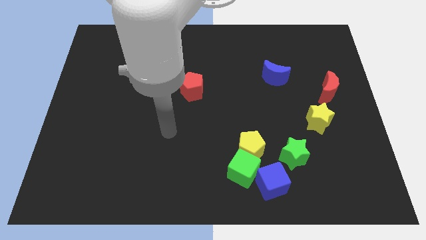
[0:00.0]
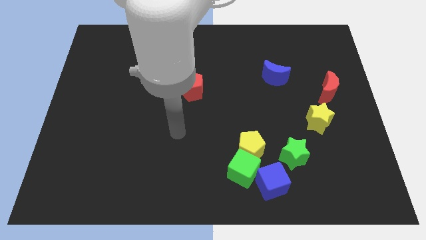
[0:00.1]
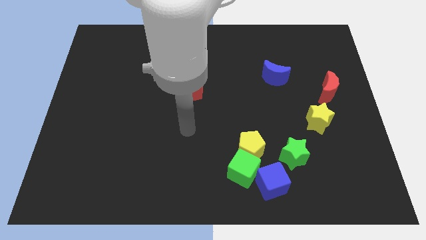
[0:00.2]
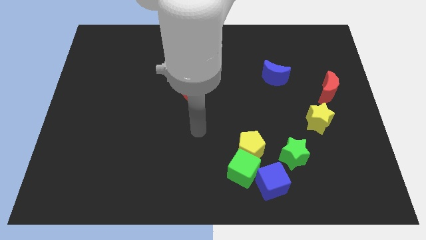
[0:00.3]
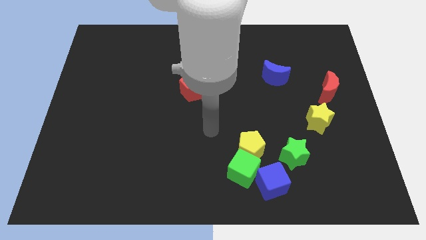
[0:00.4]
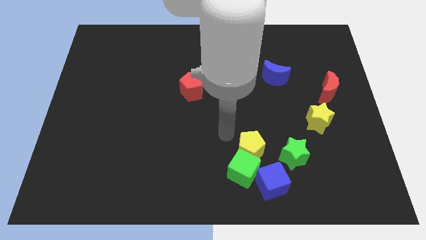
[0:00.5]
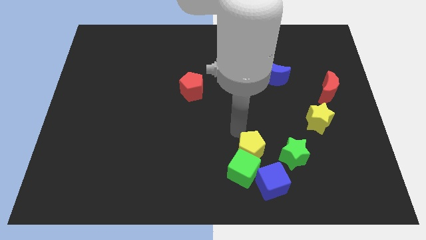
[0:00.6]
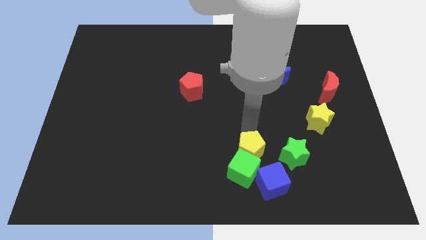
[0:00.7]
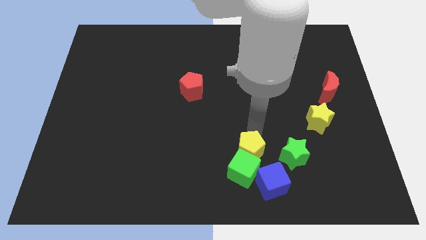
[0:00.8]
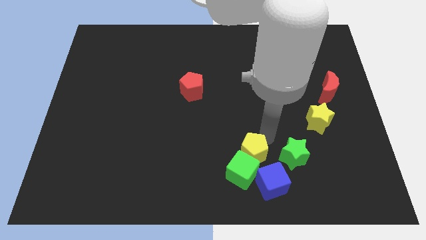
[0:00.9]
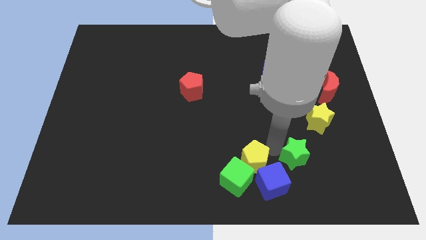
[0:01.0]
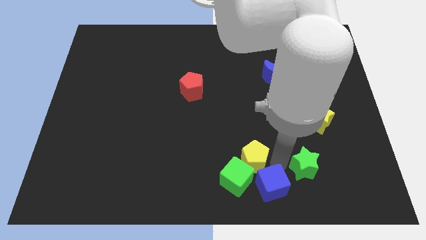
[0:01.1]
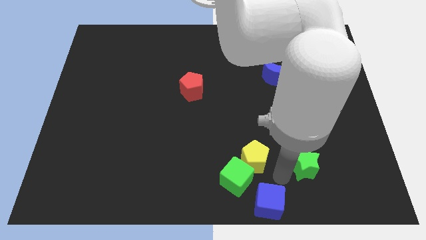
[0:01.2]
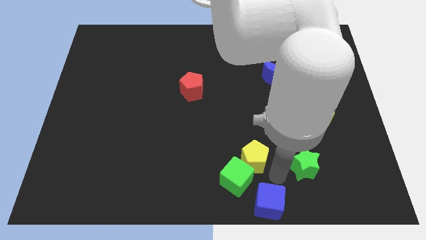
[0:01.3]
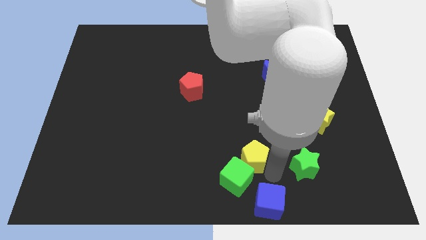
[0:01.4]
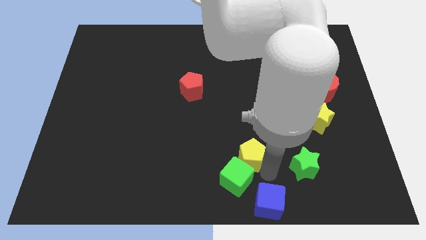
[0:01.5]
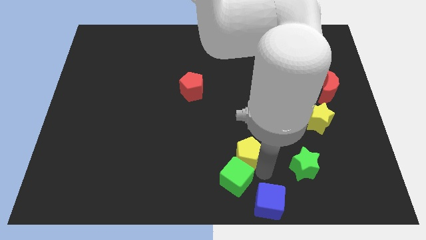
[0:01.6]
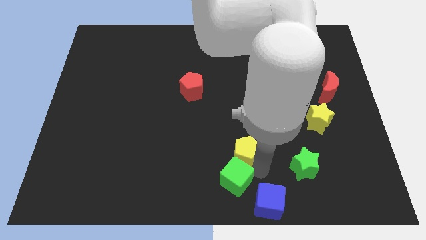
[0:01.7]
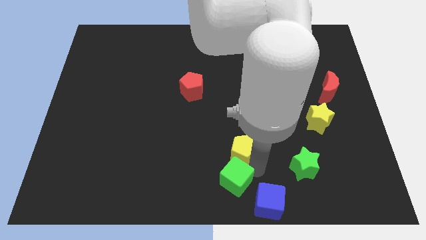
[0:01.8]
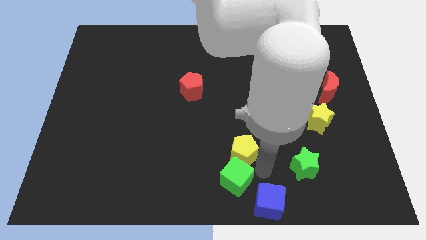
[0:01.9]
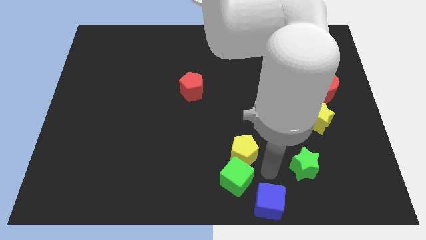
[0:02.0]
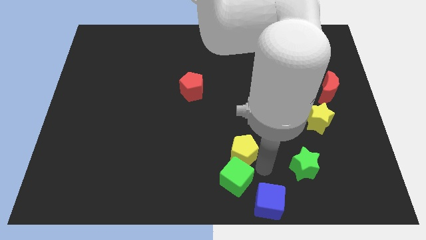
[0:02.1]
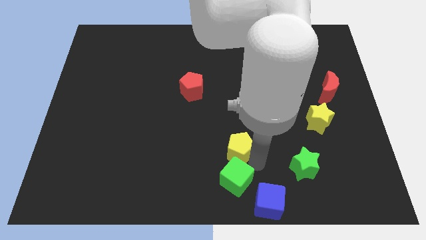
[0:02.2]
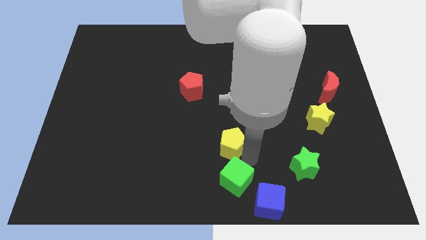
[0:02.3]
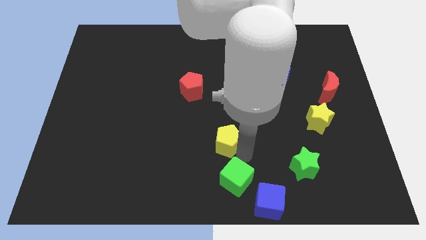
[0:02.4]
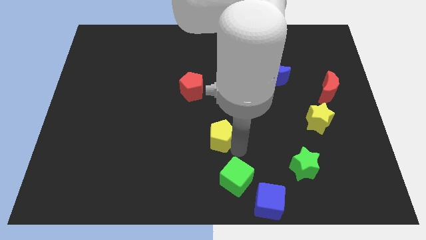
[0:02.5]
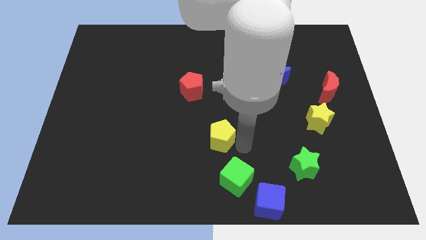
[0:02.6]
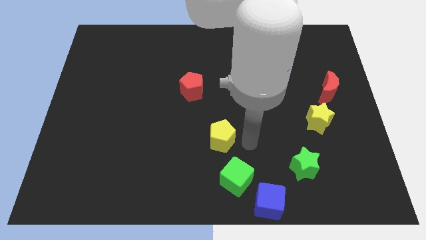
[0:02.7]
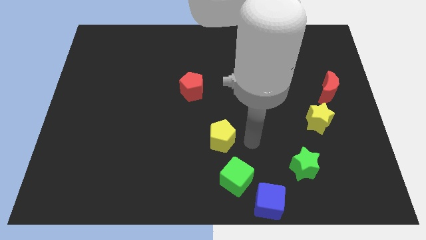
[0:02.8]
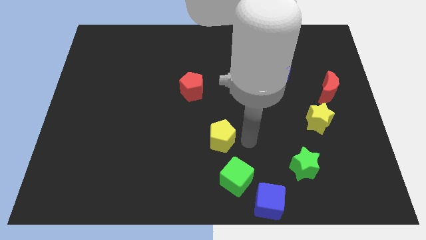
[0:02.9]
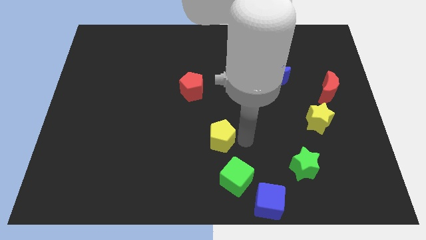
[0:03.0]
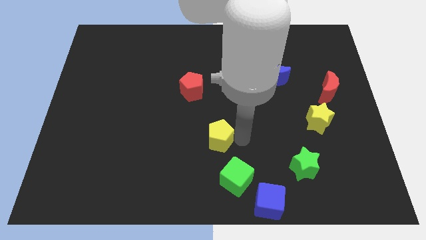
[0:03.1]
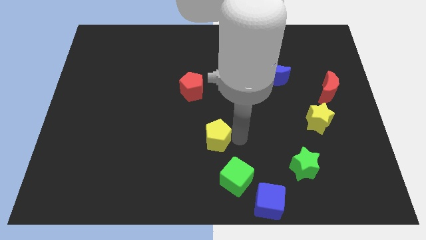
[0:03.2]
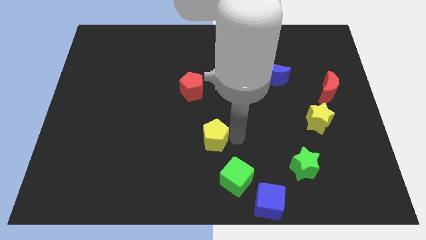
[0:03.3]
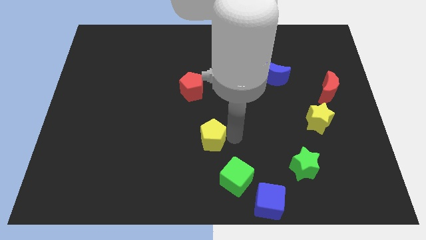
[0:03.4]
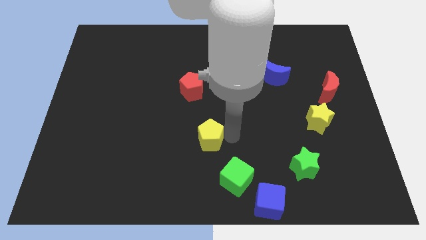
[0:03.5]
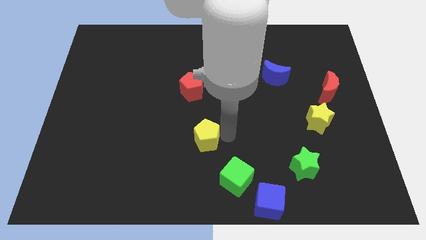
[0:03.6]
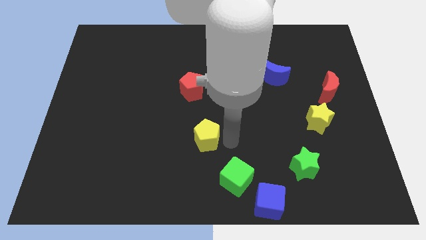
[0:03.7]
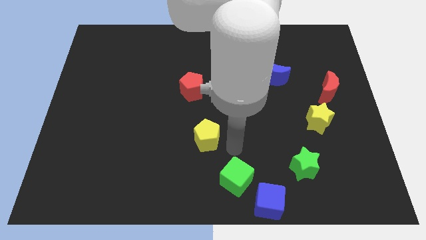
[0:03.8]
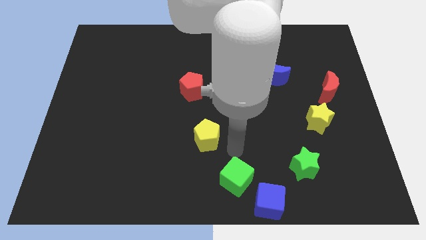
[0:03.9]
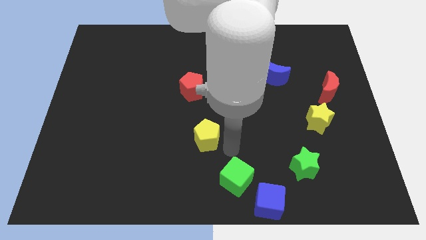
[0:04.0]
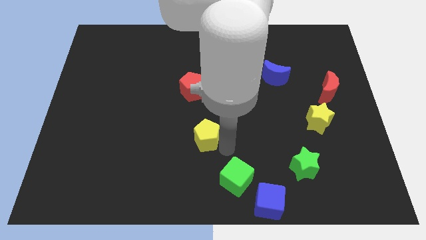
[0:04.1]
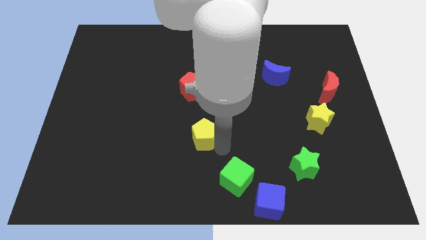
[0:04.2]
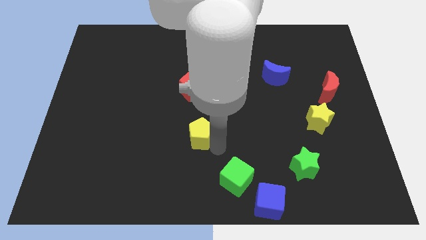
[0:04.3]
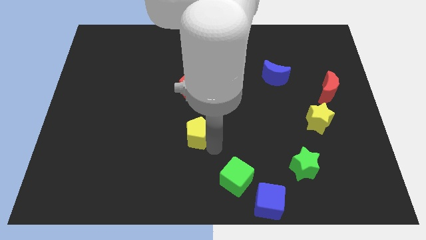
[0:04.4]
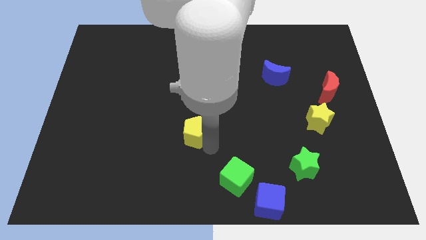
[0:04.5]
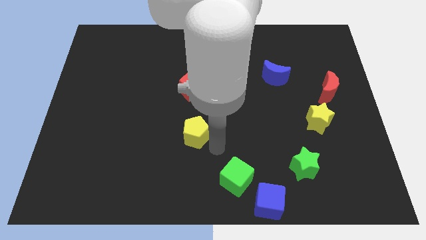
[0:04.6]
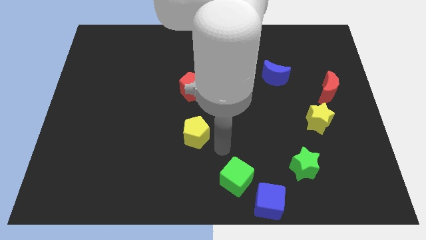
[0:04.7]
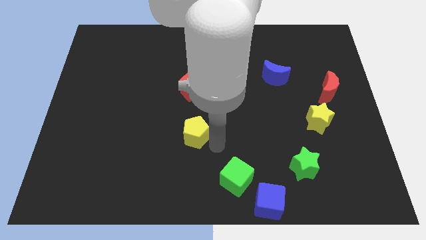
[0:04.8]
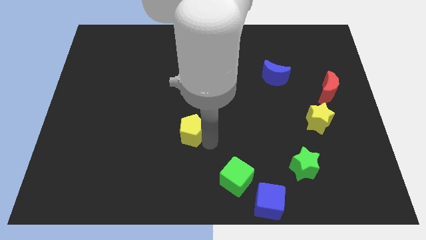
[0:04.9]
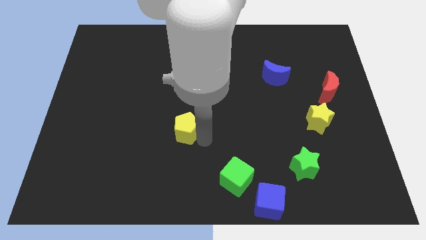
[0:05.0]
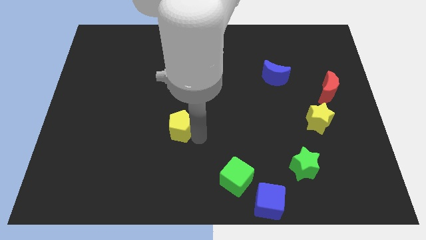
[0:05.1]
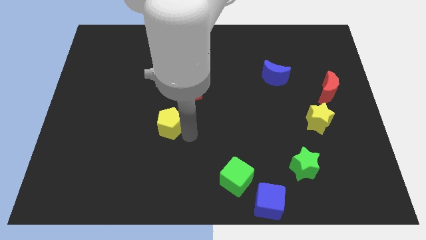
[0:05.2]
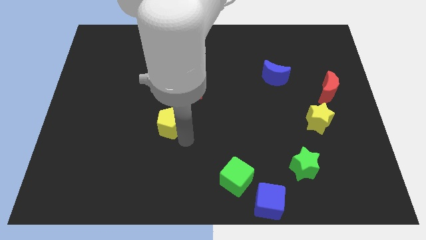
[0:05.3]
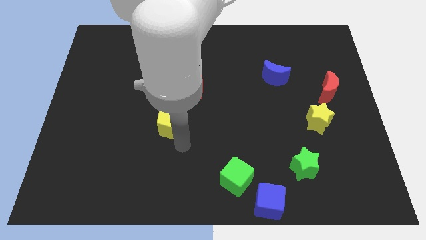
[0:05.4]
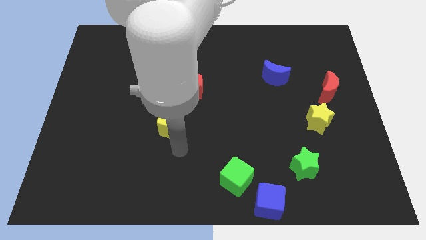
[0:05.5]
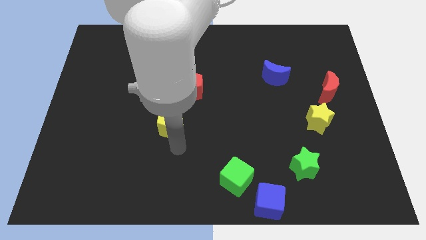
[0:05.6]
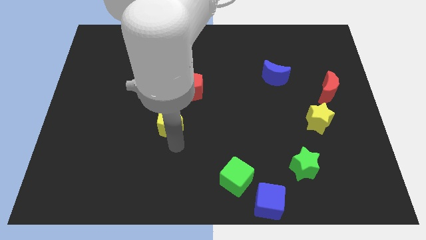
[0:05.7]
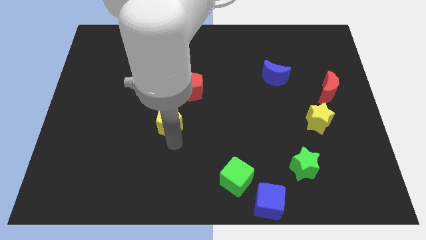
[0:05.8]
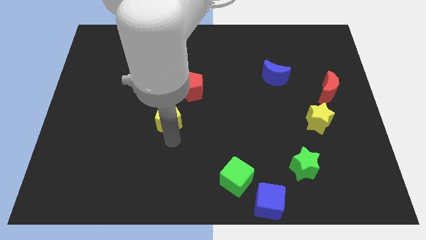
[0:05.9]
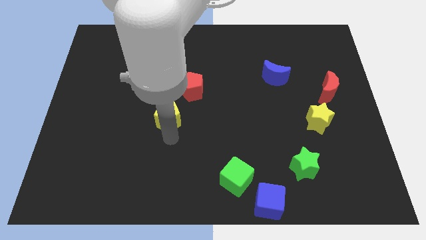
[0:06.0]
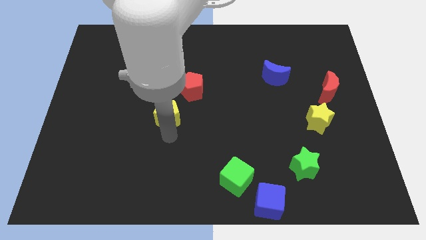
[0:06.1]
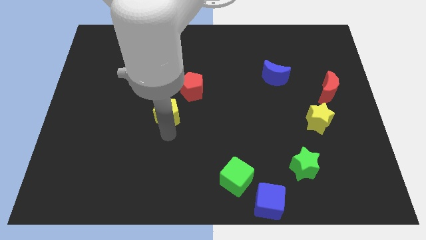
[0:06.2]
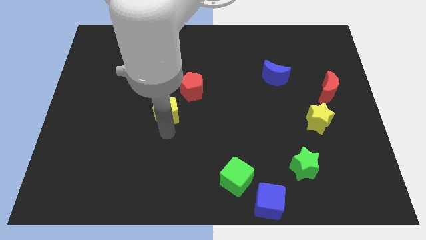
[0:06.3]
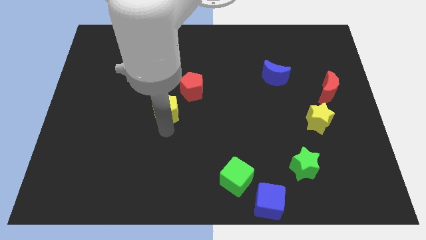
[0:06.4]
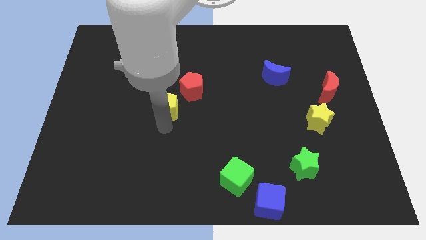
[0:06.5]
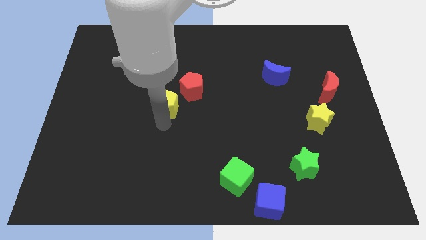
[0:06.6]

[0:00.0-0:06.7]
move the yellow pentagon diagonally up and to the left

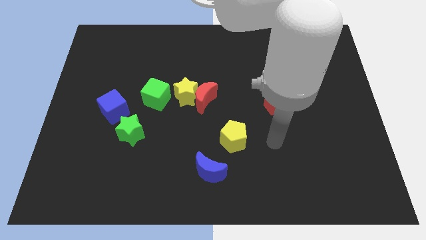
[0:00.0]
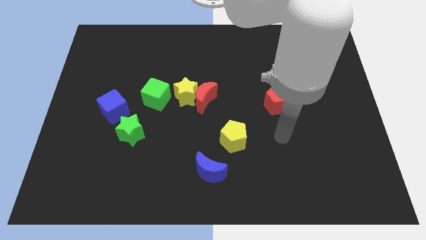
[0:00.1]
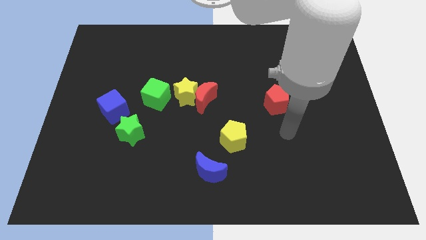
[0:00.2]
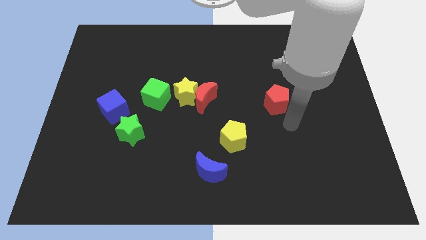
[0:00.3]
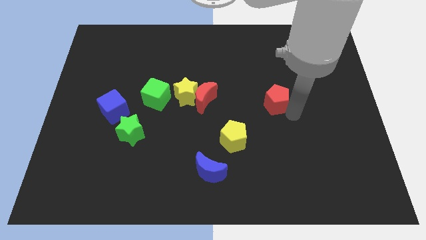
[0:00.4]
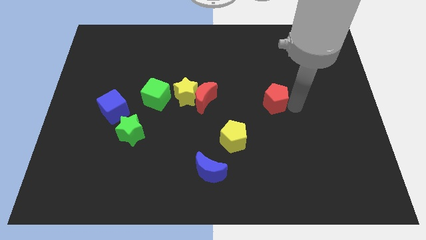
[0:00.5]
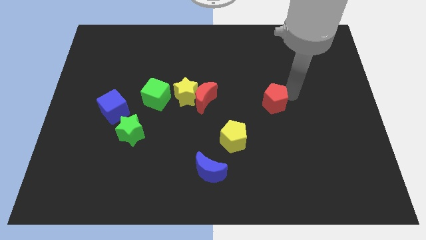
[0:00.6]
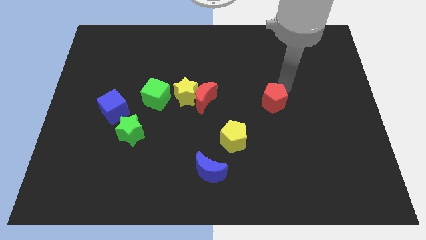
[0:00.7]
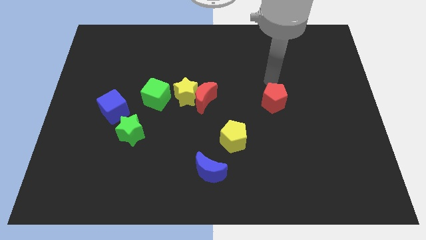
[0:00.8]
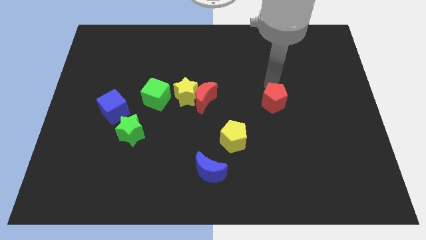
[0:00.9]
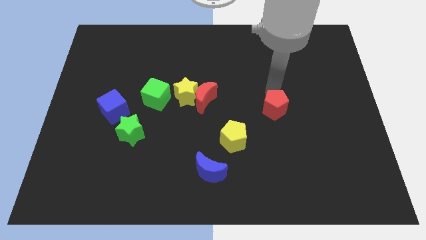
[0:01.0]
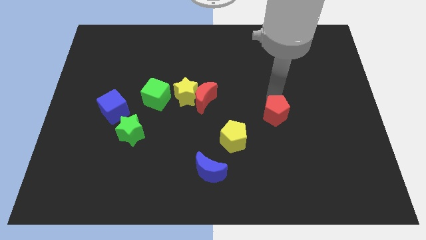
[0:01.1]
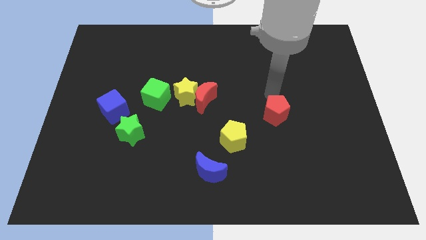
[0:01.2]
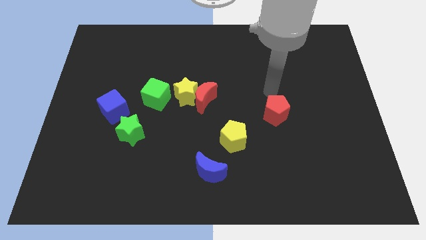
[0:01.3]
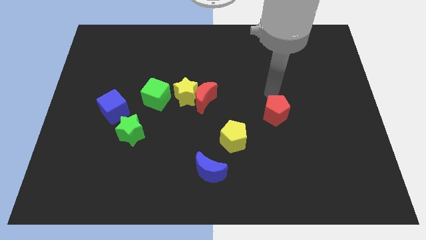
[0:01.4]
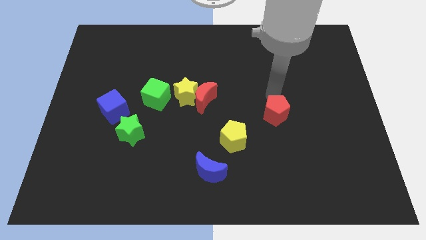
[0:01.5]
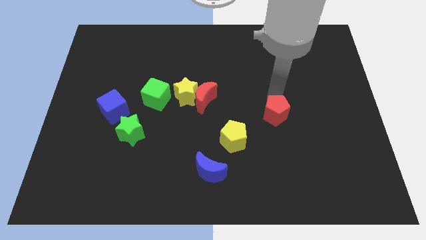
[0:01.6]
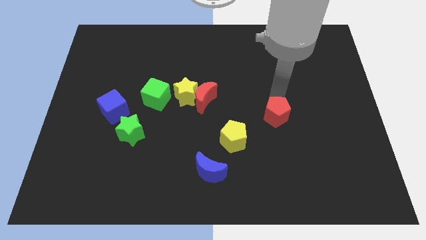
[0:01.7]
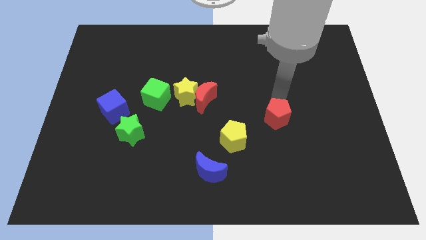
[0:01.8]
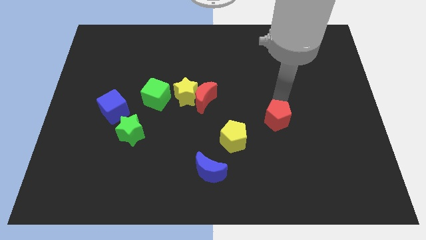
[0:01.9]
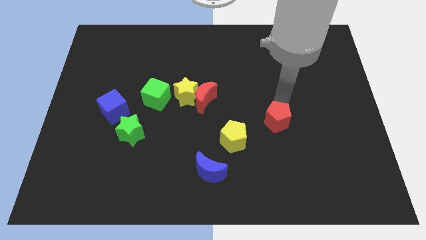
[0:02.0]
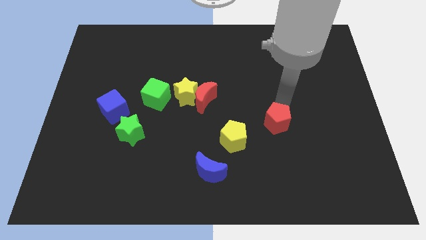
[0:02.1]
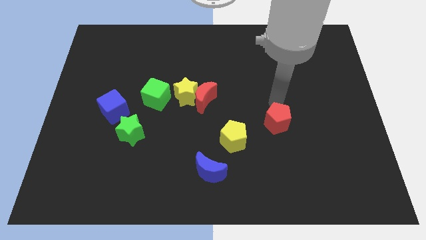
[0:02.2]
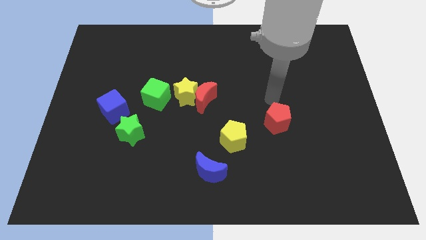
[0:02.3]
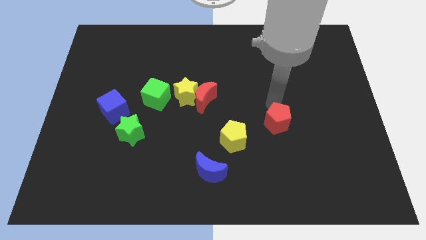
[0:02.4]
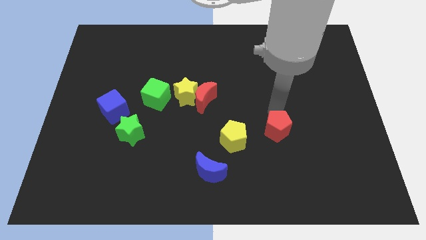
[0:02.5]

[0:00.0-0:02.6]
slightly push the red pentagon down
